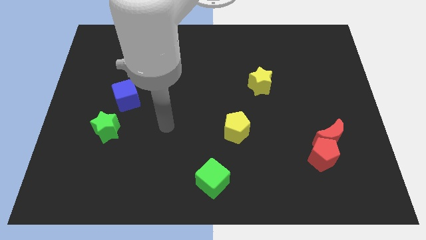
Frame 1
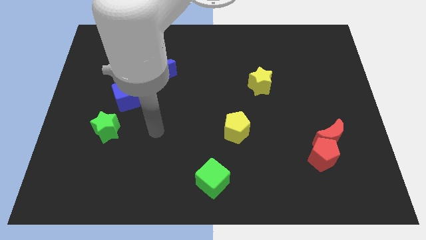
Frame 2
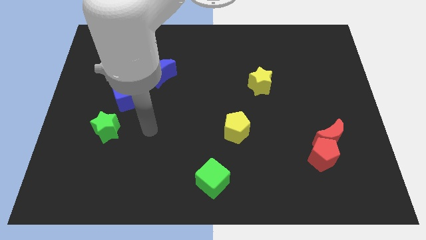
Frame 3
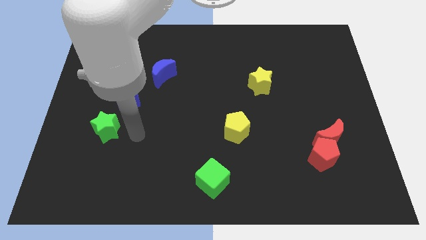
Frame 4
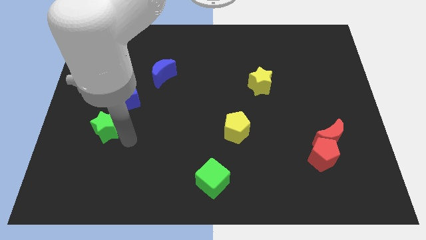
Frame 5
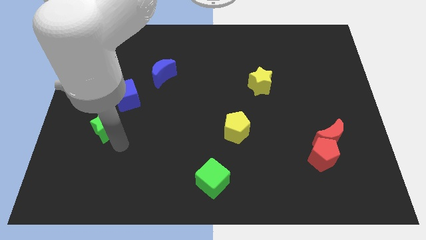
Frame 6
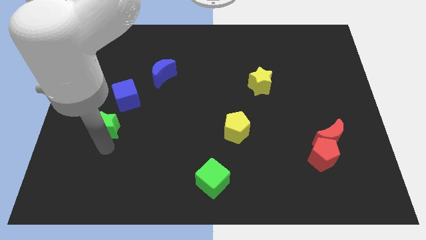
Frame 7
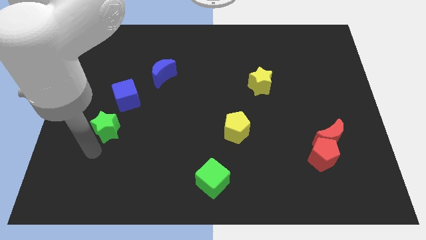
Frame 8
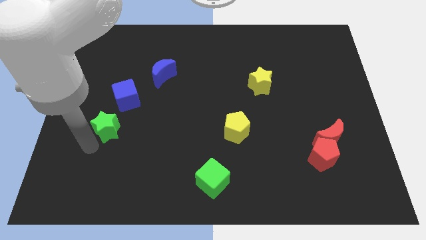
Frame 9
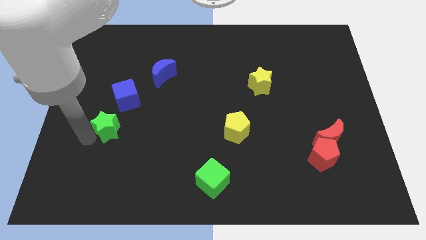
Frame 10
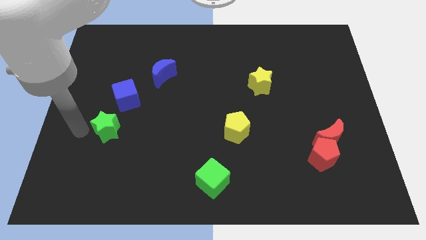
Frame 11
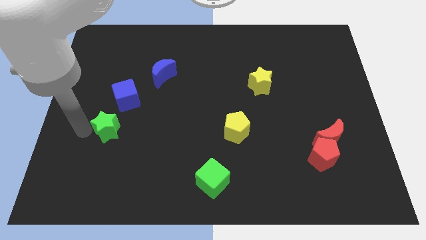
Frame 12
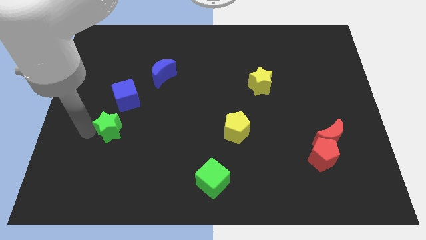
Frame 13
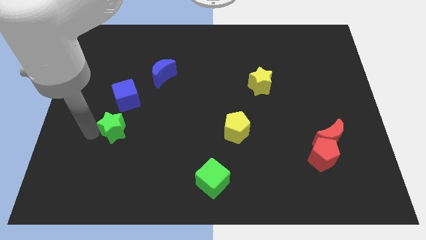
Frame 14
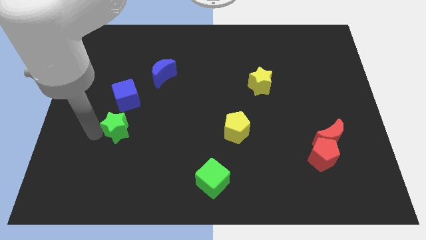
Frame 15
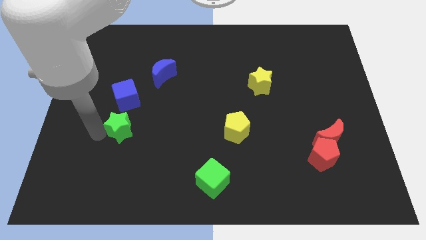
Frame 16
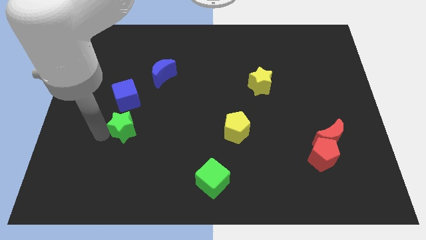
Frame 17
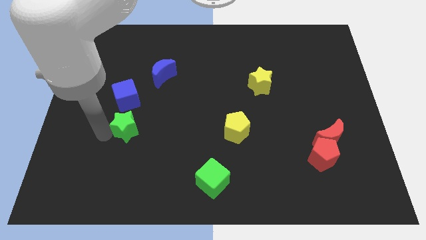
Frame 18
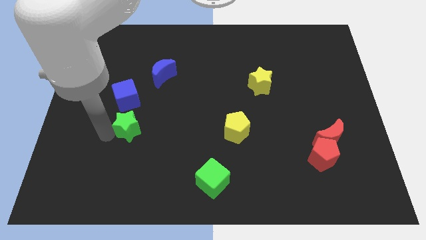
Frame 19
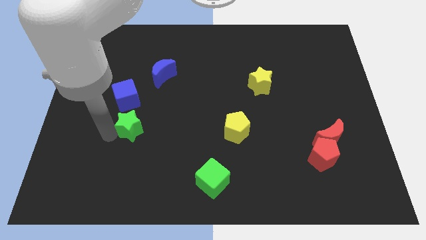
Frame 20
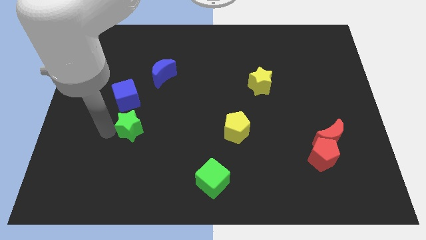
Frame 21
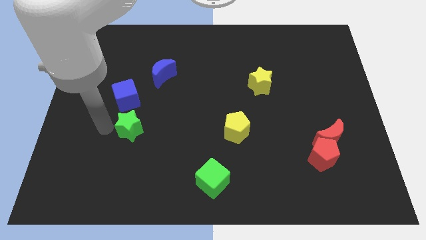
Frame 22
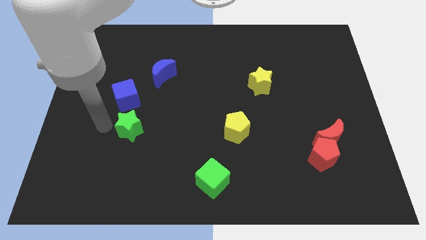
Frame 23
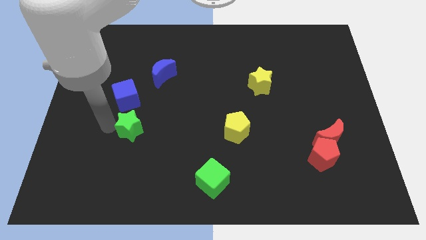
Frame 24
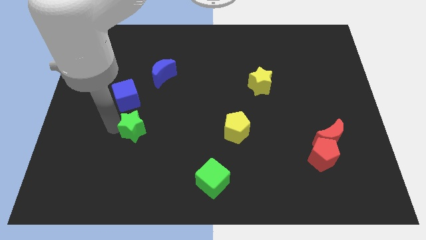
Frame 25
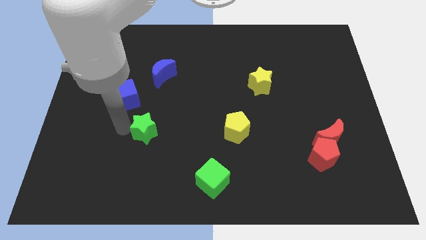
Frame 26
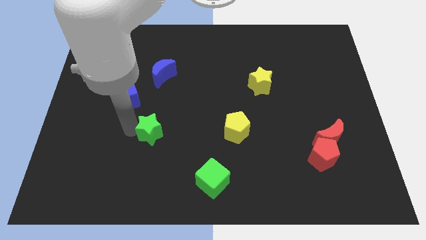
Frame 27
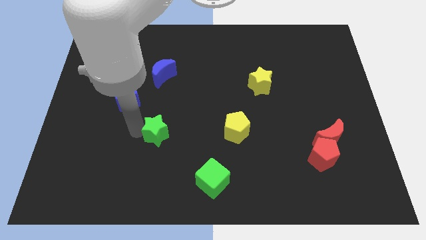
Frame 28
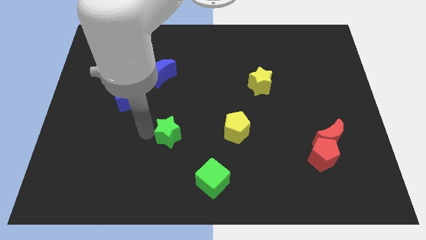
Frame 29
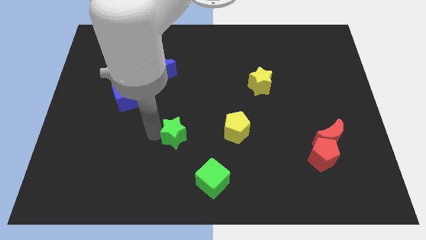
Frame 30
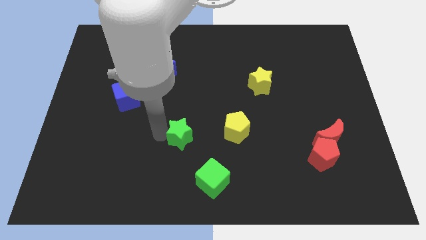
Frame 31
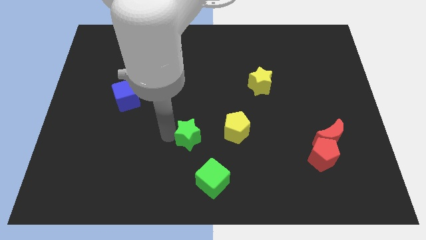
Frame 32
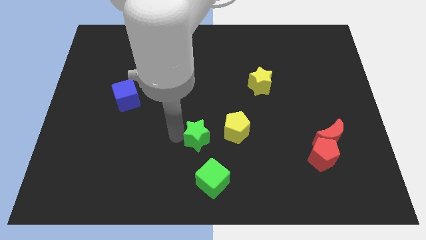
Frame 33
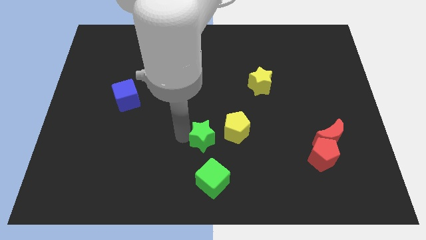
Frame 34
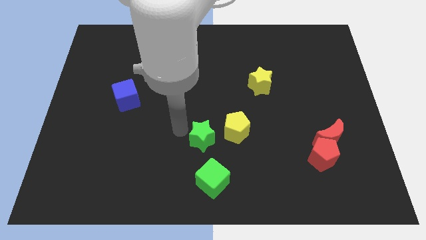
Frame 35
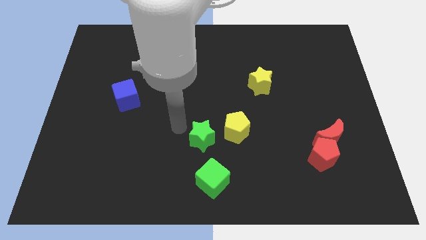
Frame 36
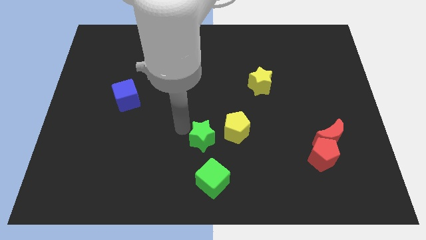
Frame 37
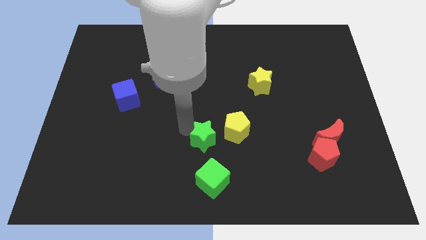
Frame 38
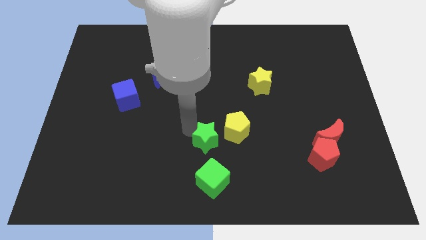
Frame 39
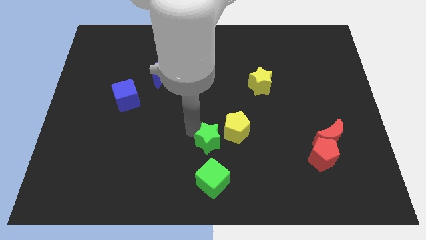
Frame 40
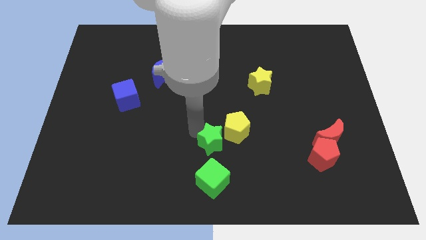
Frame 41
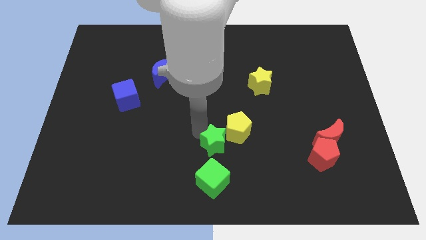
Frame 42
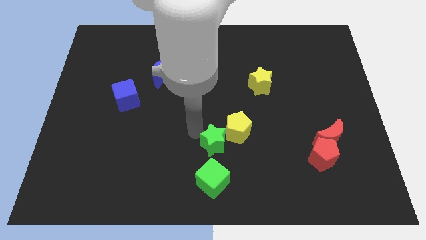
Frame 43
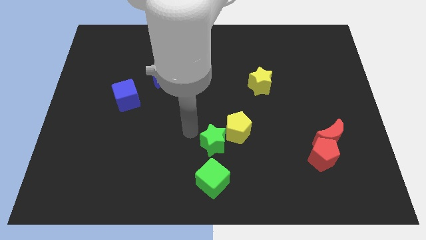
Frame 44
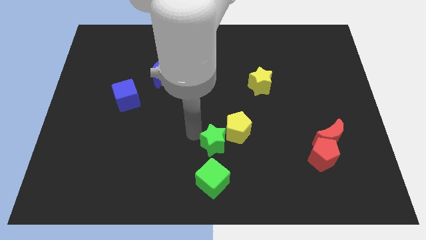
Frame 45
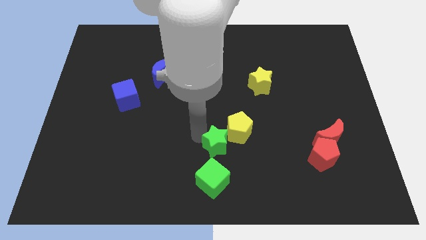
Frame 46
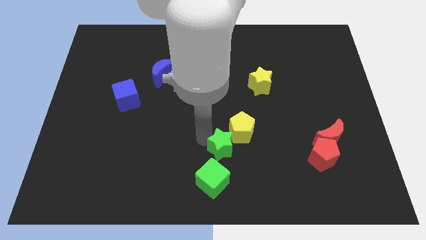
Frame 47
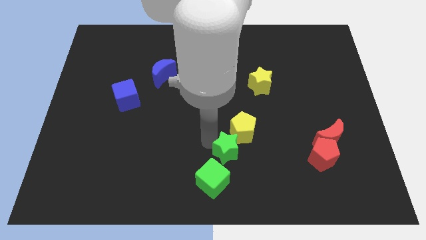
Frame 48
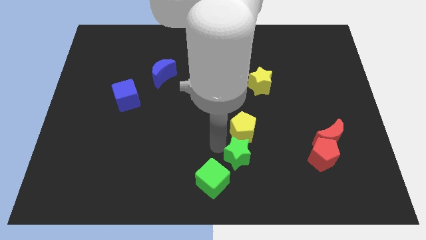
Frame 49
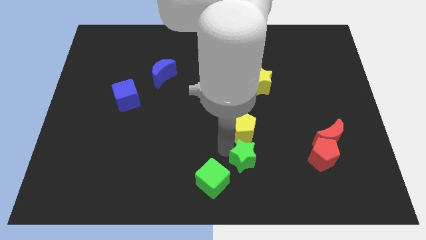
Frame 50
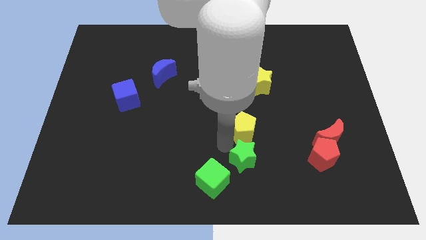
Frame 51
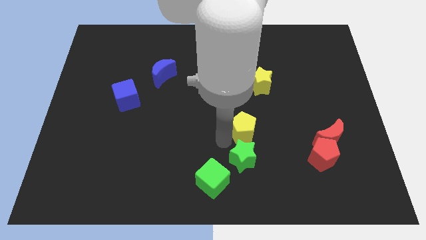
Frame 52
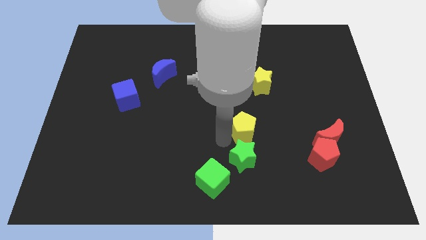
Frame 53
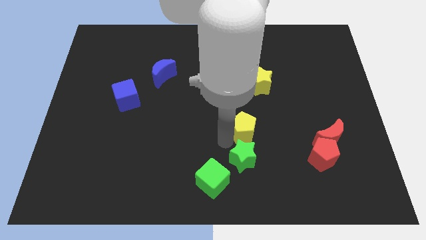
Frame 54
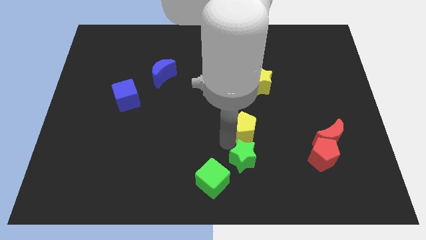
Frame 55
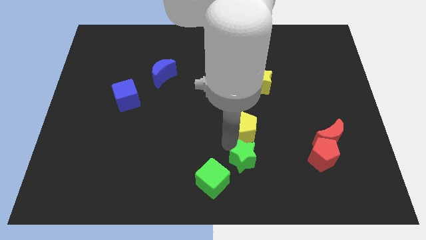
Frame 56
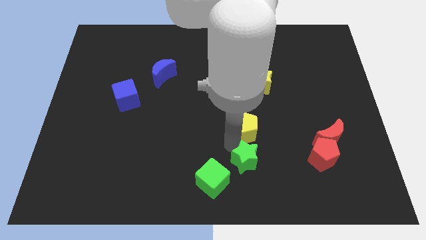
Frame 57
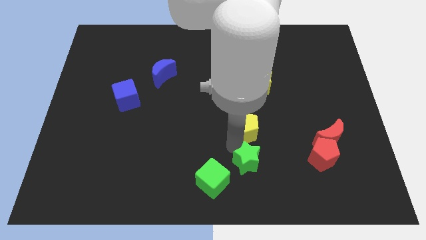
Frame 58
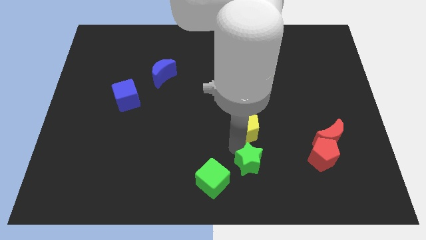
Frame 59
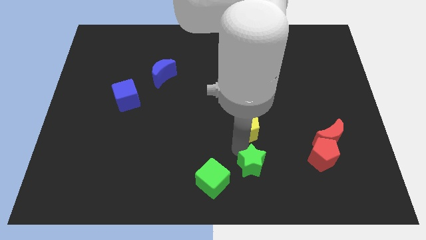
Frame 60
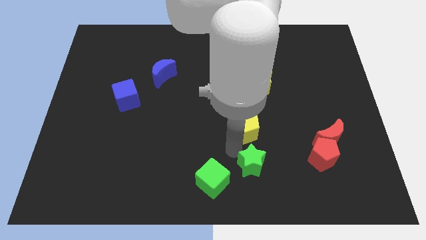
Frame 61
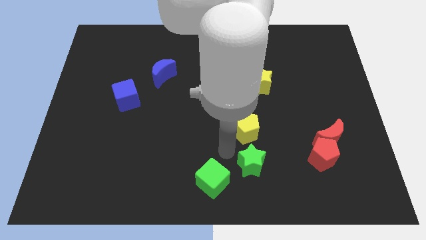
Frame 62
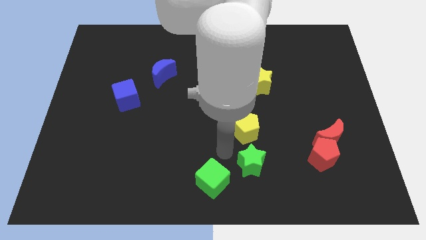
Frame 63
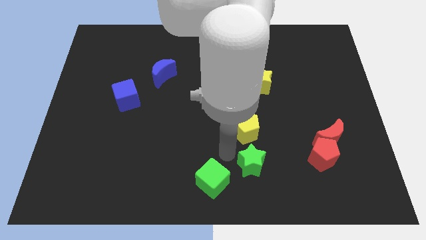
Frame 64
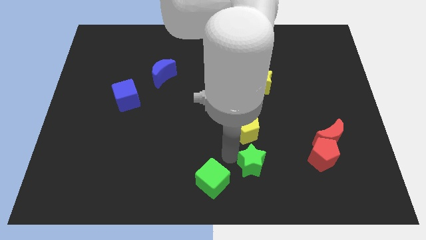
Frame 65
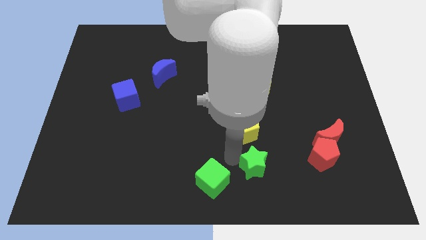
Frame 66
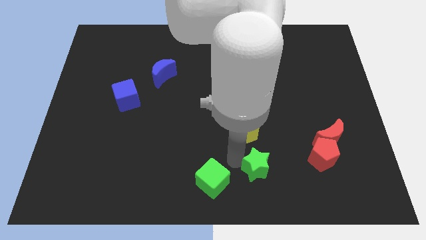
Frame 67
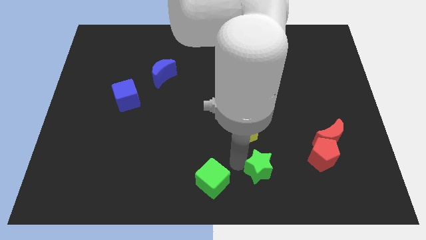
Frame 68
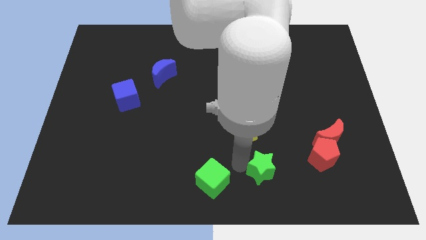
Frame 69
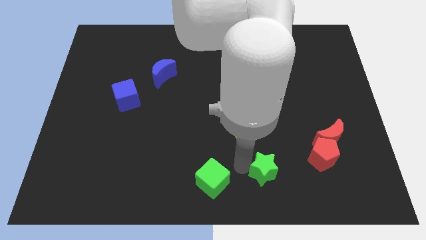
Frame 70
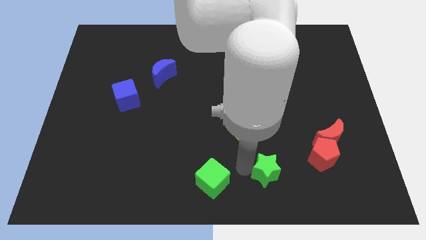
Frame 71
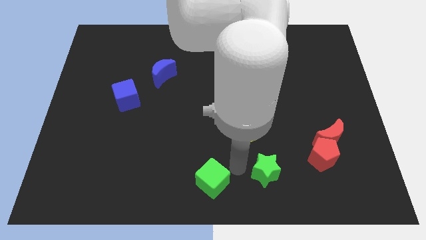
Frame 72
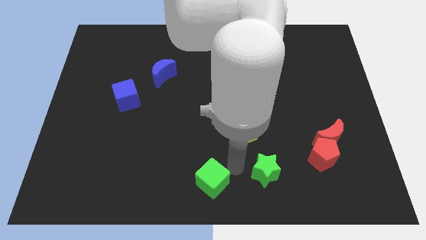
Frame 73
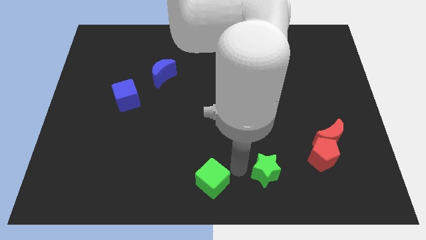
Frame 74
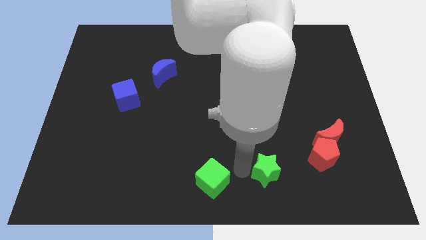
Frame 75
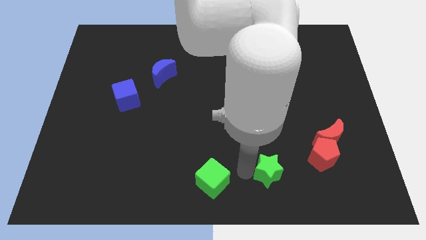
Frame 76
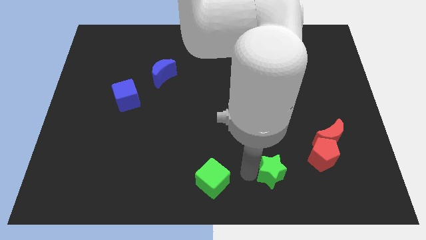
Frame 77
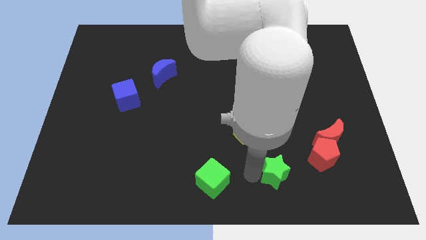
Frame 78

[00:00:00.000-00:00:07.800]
slide the green star to the bottom left side of the red pentagon
